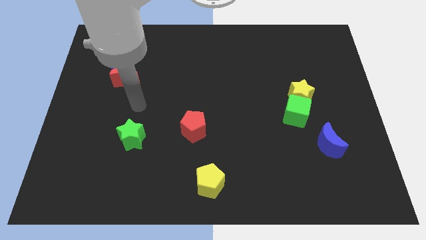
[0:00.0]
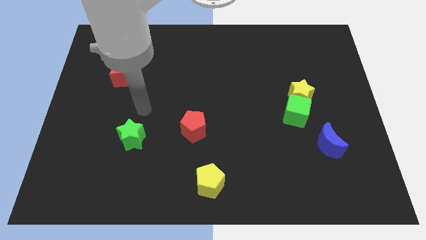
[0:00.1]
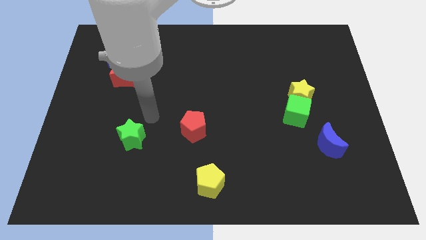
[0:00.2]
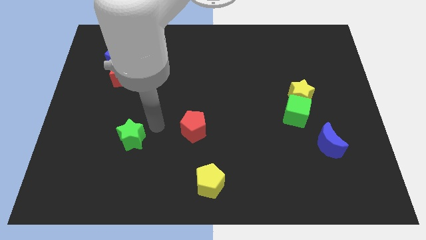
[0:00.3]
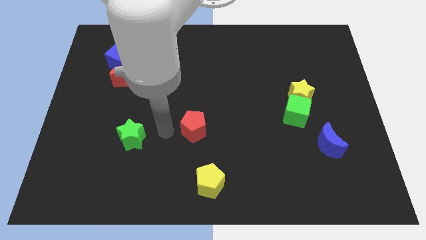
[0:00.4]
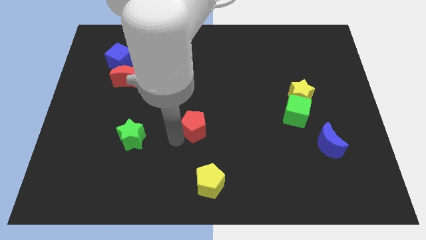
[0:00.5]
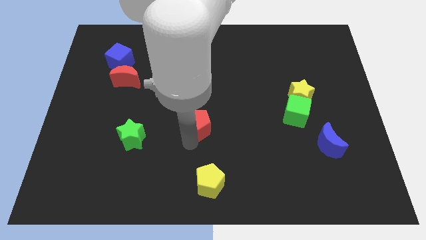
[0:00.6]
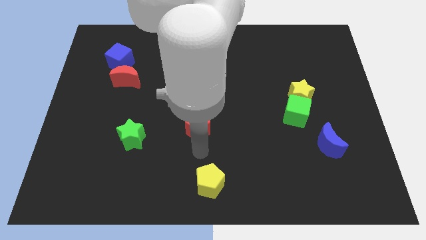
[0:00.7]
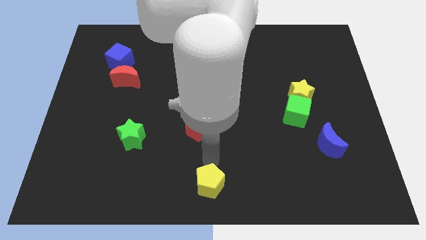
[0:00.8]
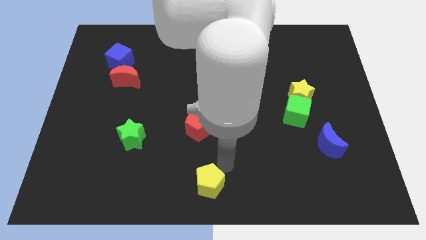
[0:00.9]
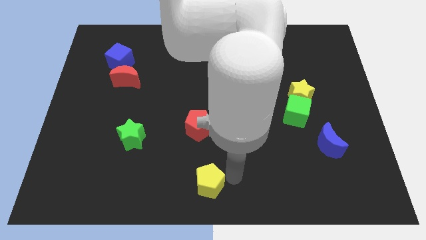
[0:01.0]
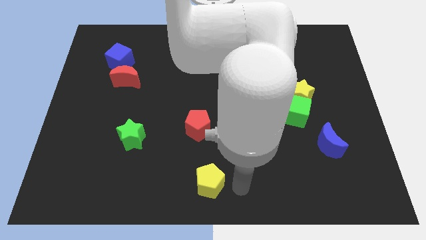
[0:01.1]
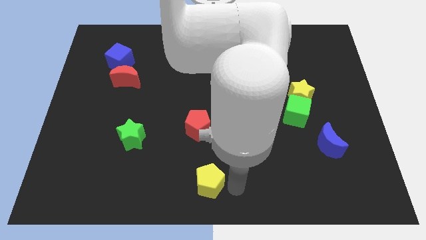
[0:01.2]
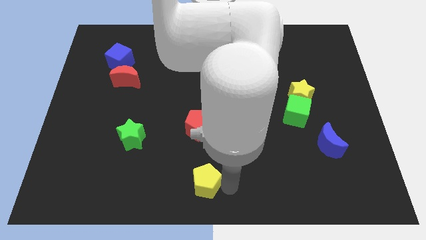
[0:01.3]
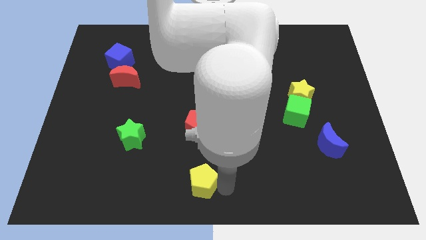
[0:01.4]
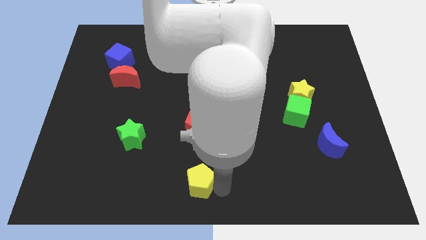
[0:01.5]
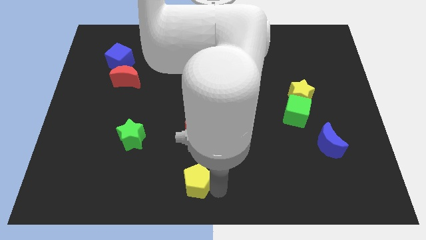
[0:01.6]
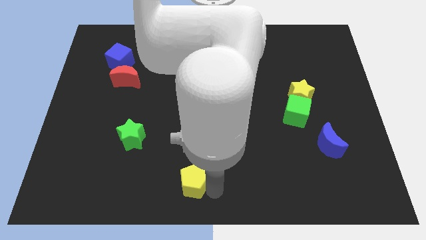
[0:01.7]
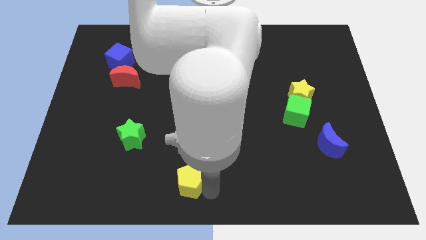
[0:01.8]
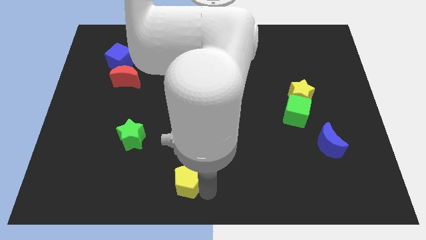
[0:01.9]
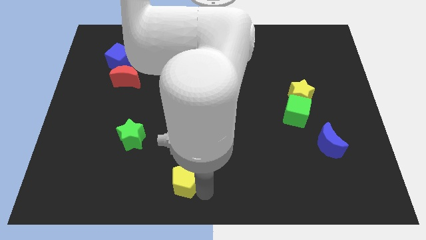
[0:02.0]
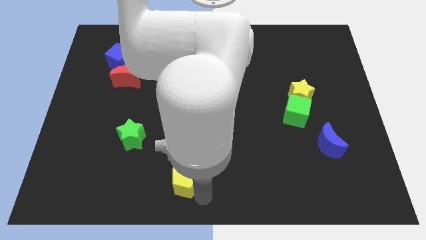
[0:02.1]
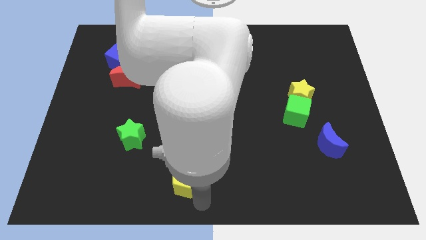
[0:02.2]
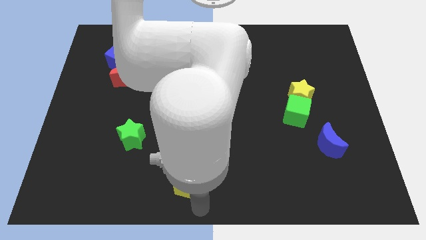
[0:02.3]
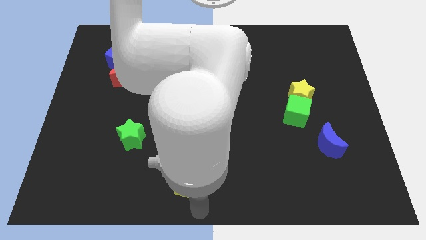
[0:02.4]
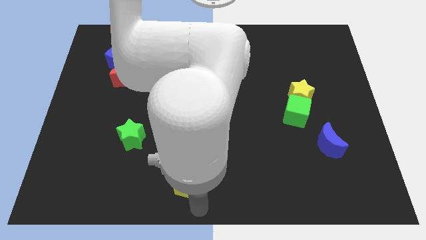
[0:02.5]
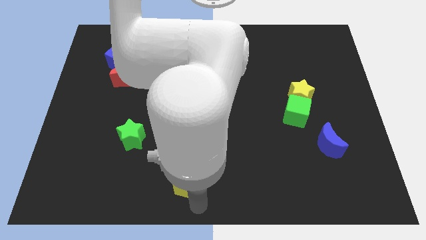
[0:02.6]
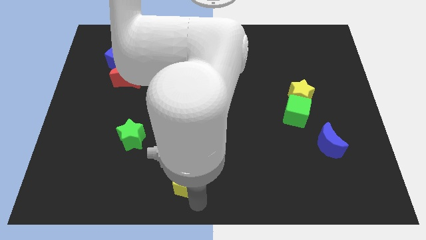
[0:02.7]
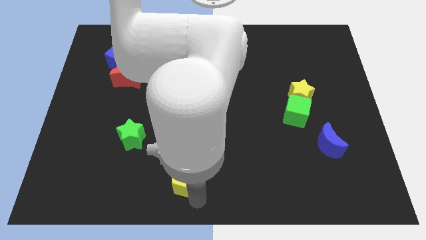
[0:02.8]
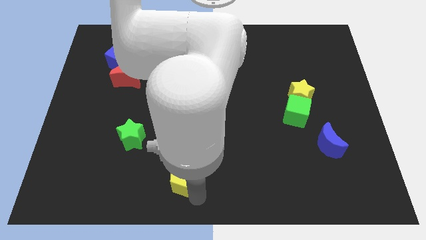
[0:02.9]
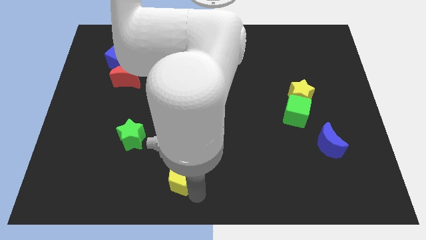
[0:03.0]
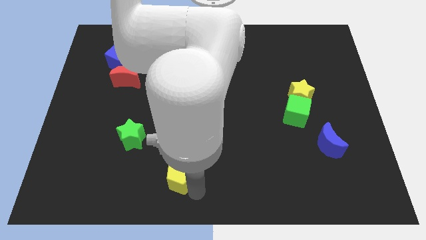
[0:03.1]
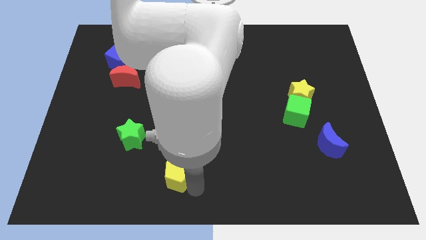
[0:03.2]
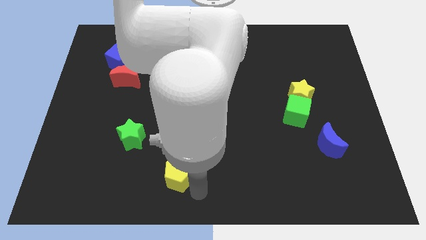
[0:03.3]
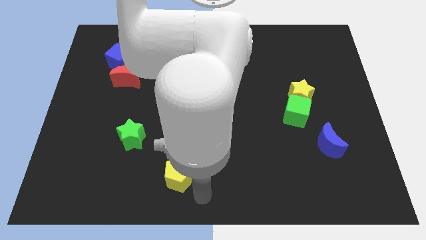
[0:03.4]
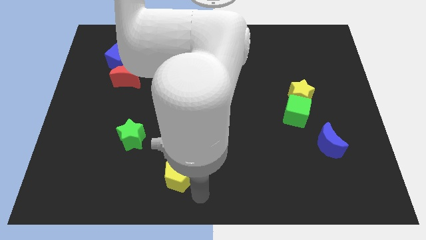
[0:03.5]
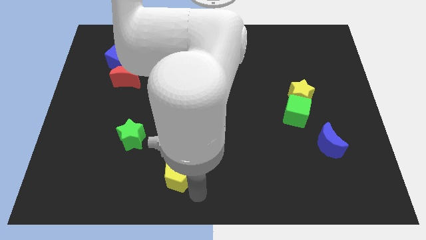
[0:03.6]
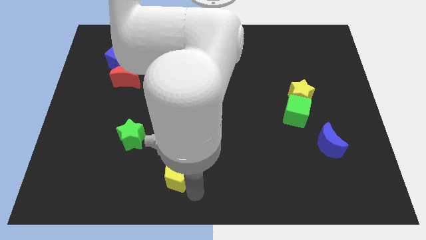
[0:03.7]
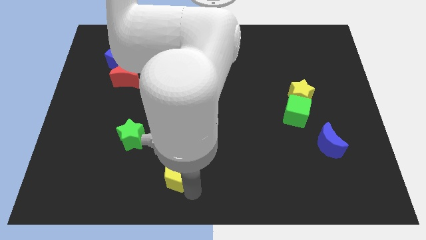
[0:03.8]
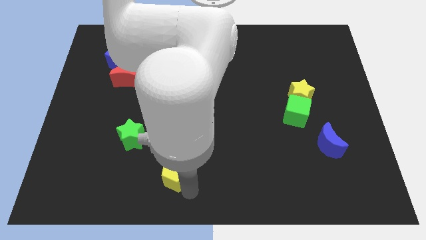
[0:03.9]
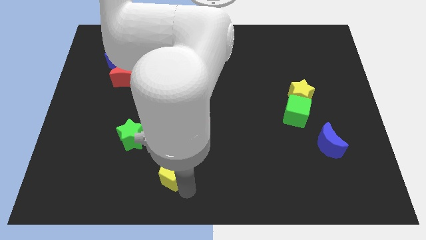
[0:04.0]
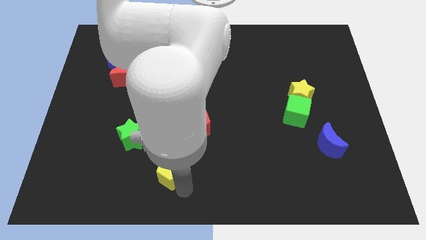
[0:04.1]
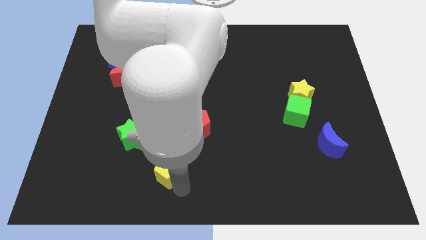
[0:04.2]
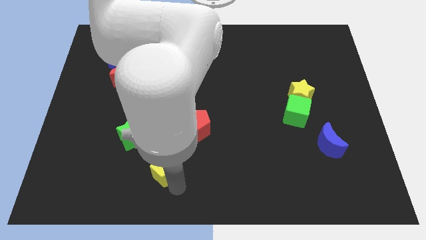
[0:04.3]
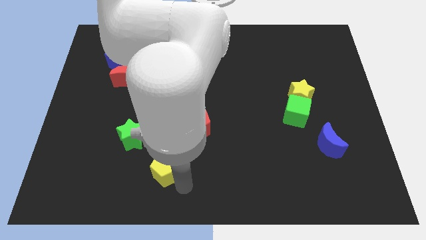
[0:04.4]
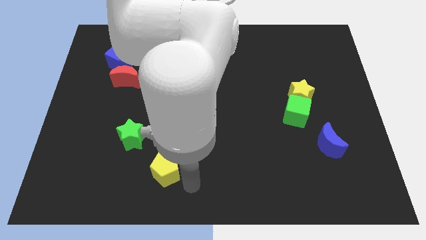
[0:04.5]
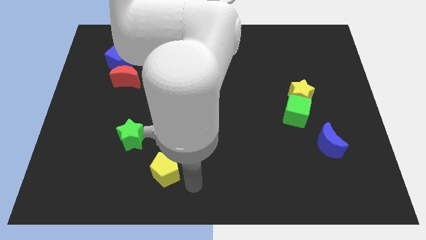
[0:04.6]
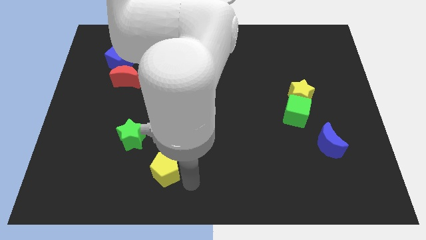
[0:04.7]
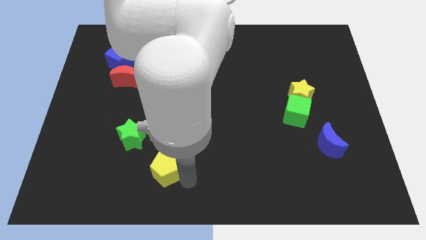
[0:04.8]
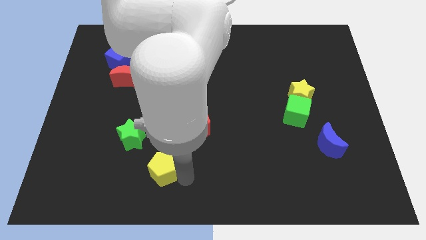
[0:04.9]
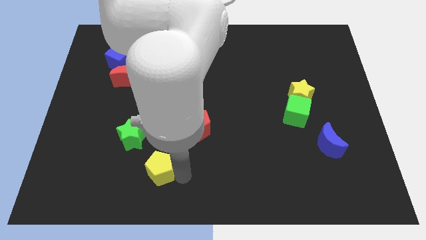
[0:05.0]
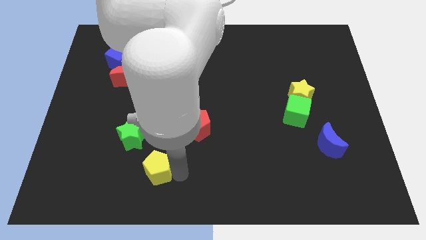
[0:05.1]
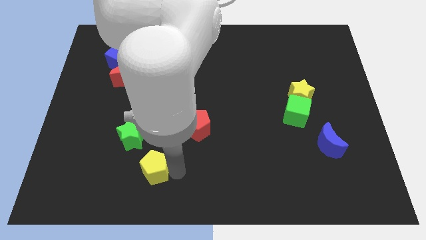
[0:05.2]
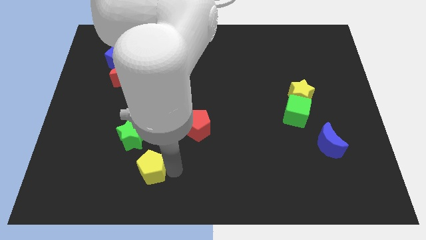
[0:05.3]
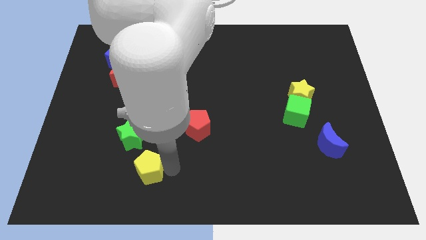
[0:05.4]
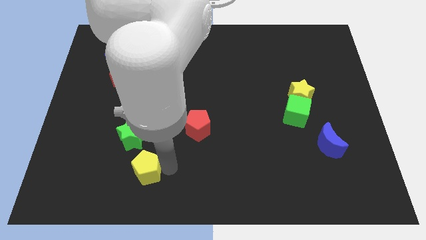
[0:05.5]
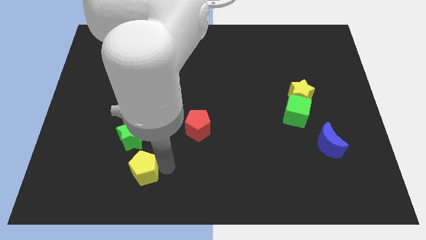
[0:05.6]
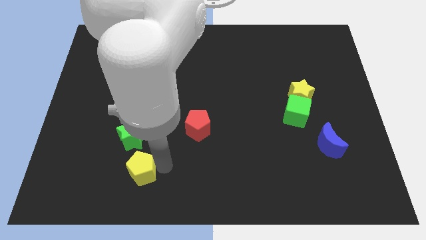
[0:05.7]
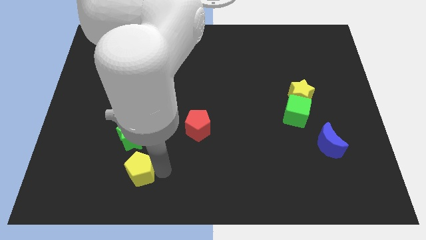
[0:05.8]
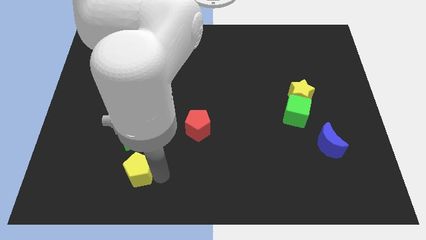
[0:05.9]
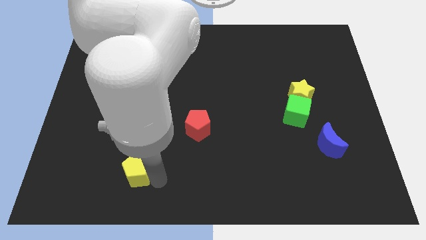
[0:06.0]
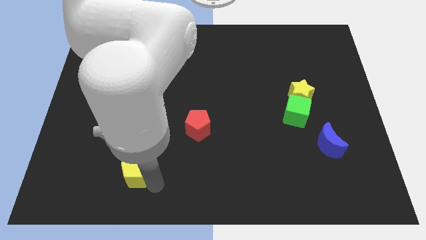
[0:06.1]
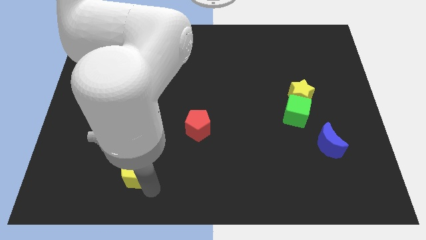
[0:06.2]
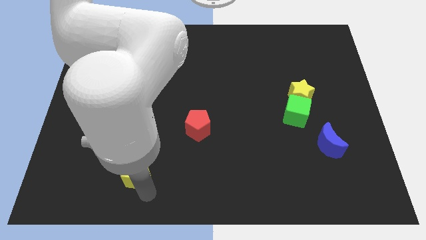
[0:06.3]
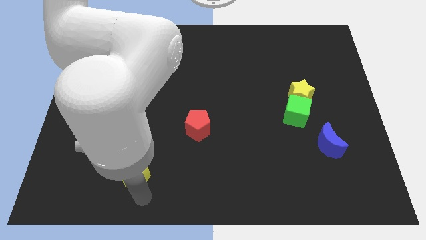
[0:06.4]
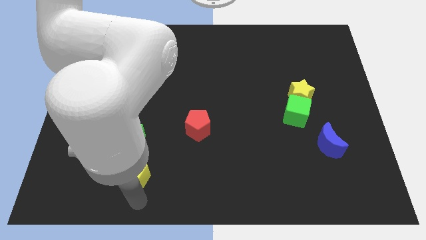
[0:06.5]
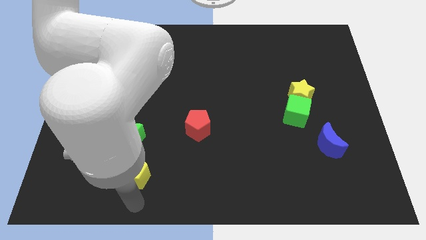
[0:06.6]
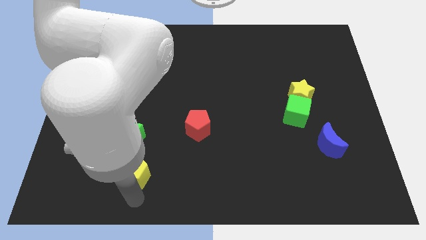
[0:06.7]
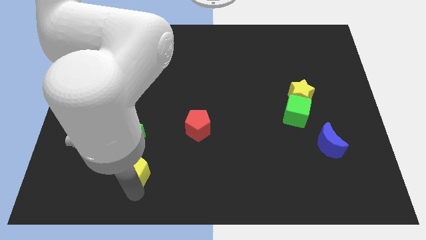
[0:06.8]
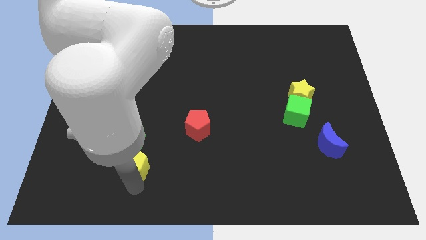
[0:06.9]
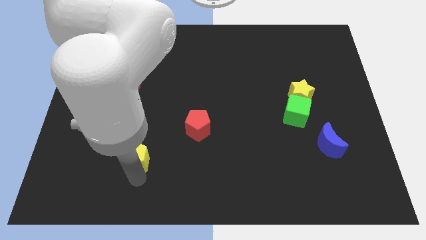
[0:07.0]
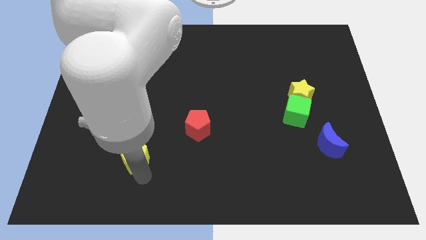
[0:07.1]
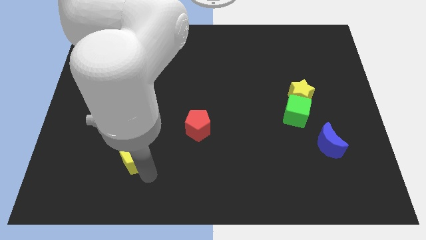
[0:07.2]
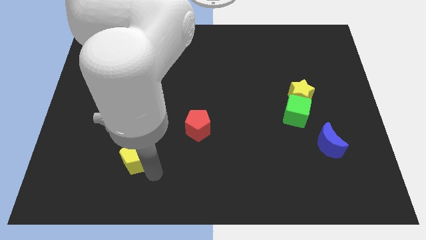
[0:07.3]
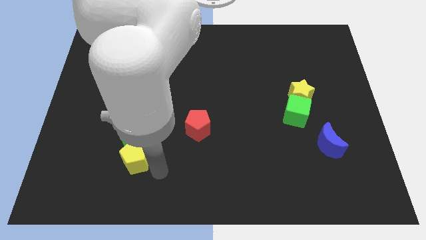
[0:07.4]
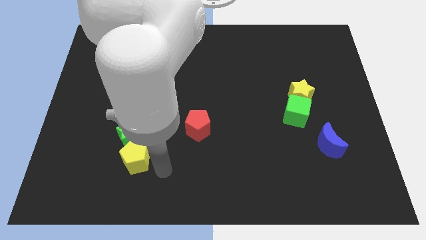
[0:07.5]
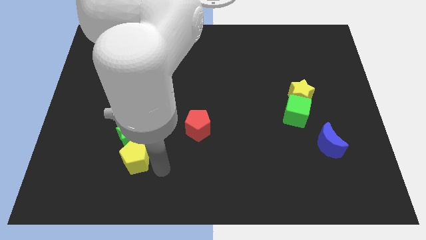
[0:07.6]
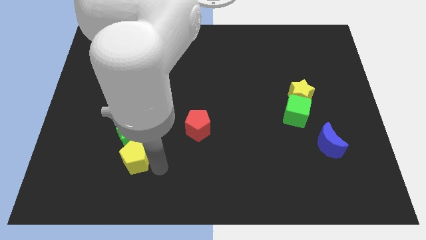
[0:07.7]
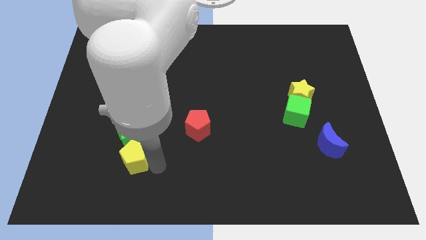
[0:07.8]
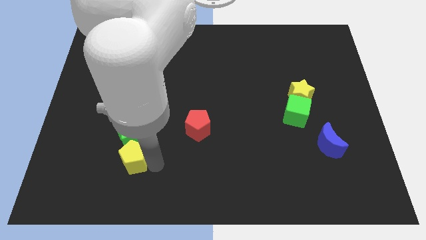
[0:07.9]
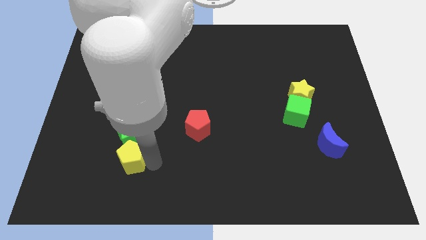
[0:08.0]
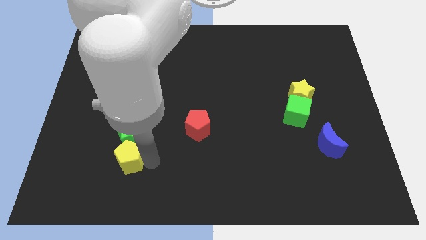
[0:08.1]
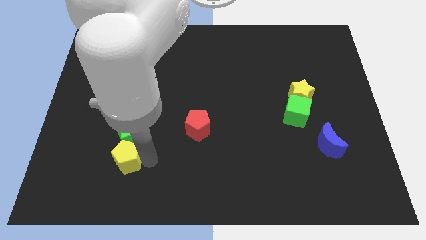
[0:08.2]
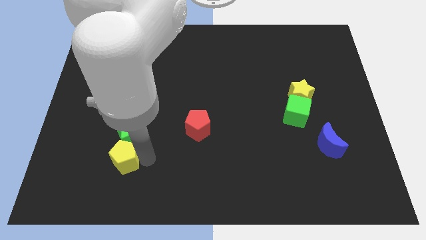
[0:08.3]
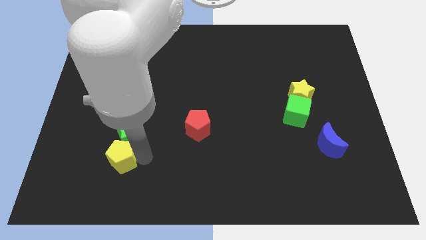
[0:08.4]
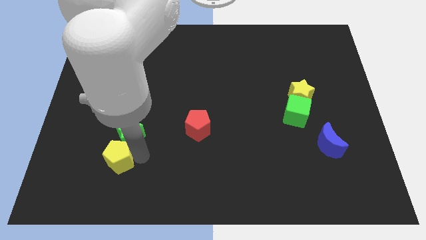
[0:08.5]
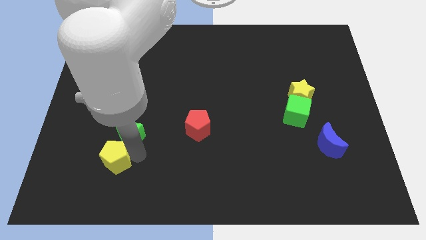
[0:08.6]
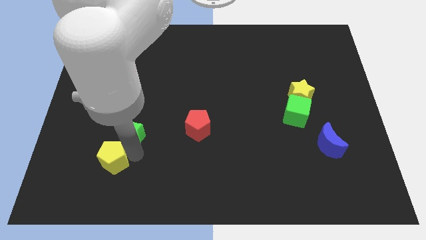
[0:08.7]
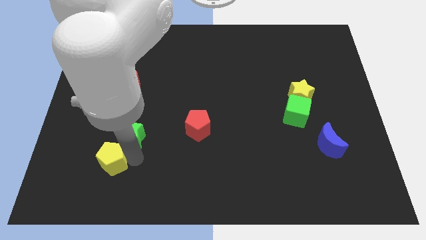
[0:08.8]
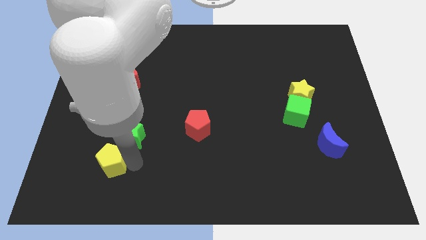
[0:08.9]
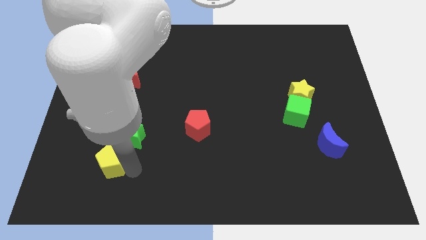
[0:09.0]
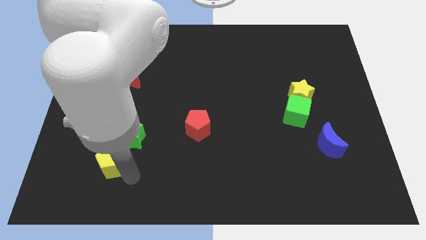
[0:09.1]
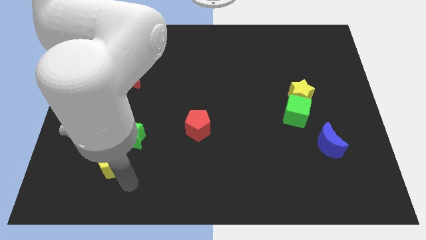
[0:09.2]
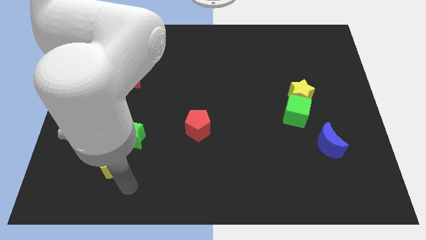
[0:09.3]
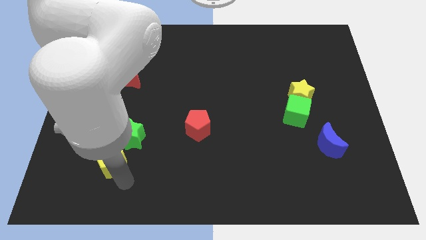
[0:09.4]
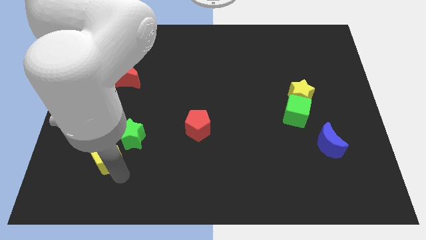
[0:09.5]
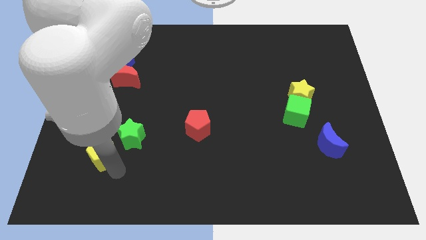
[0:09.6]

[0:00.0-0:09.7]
slide the yellow pentagon to the left side of the green star
